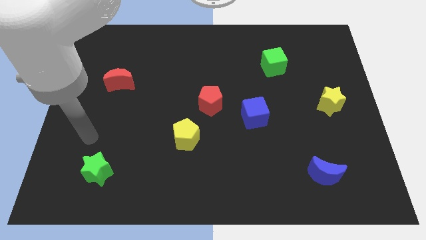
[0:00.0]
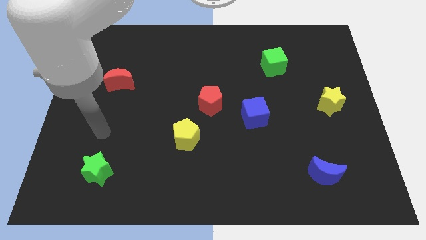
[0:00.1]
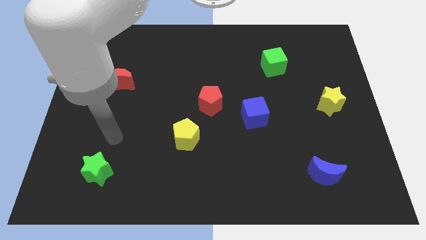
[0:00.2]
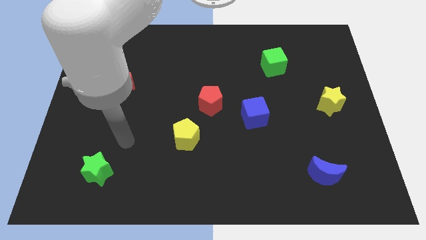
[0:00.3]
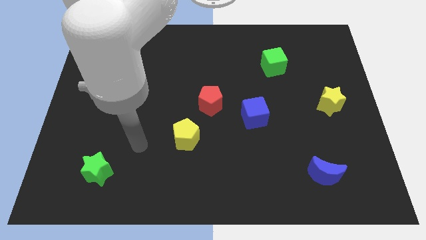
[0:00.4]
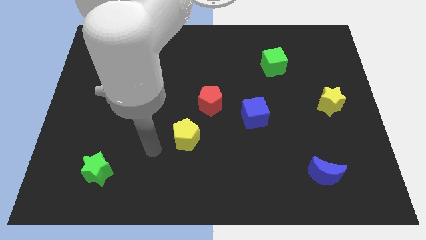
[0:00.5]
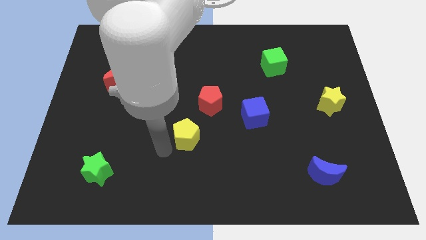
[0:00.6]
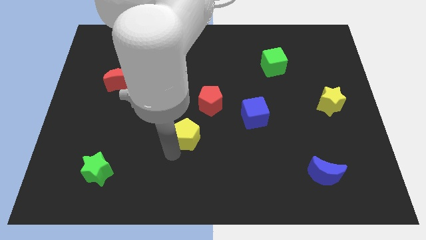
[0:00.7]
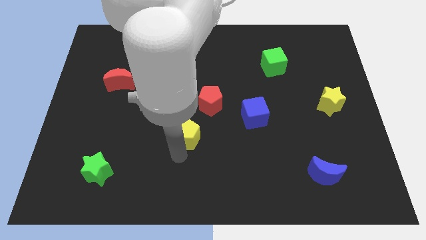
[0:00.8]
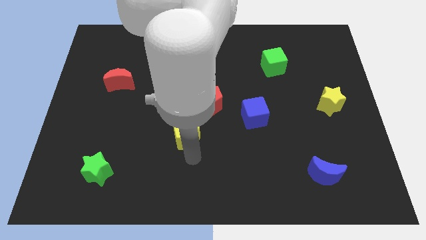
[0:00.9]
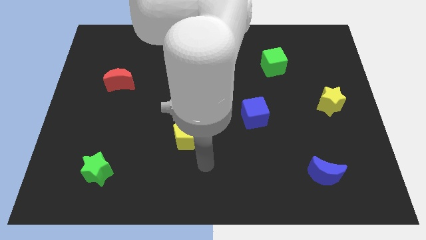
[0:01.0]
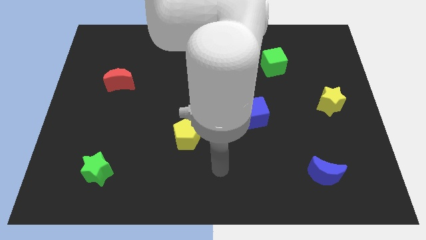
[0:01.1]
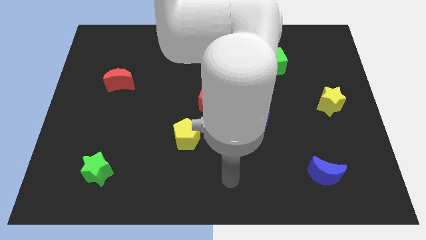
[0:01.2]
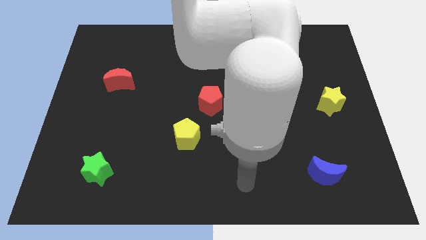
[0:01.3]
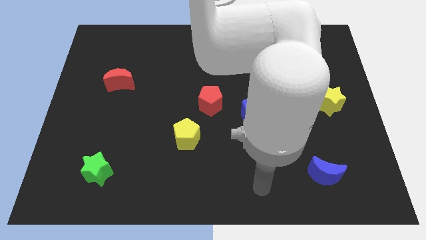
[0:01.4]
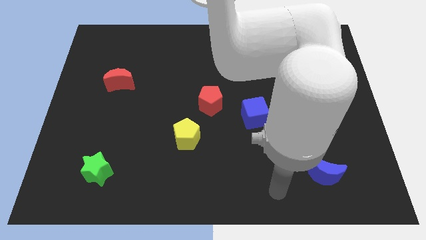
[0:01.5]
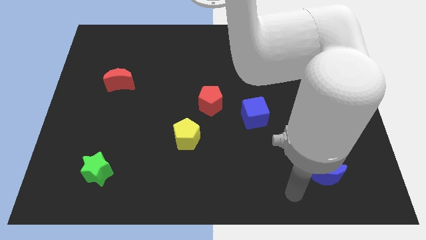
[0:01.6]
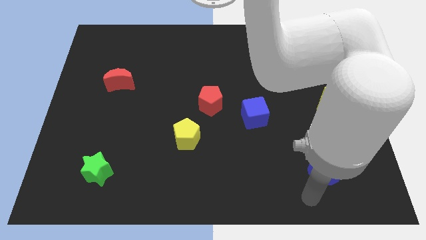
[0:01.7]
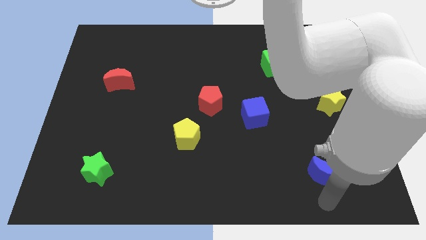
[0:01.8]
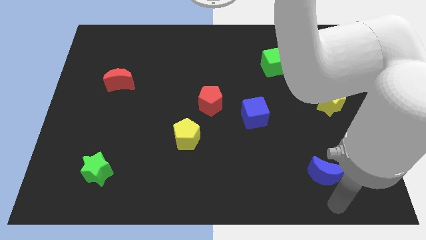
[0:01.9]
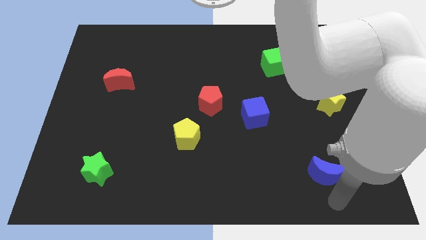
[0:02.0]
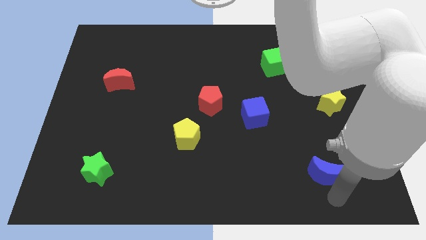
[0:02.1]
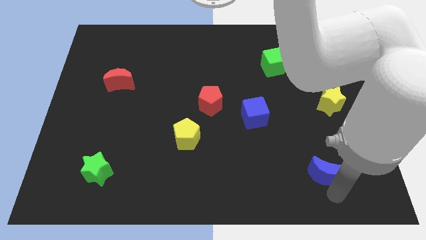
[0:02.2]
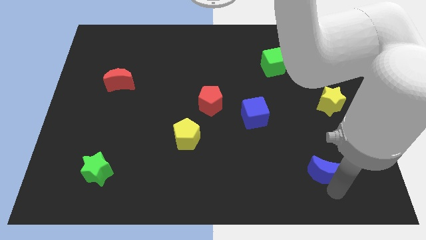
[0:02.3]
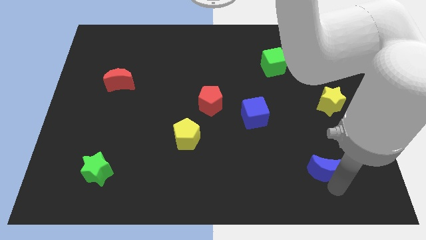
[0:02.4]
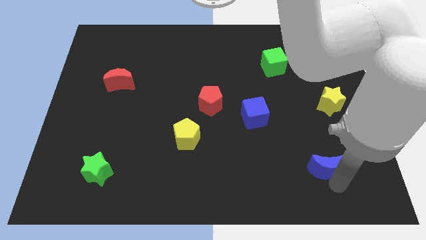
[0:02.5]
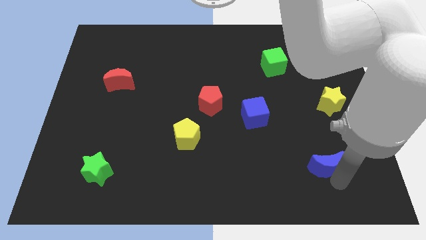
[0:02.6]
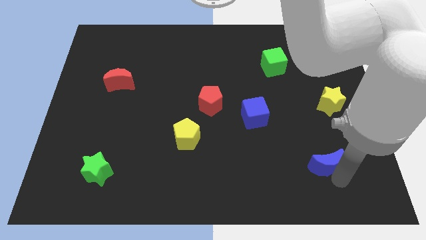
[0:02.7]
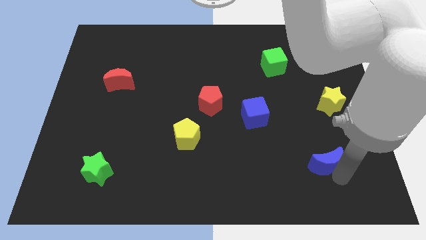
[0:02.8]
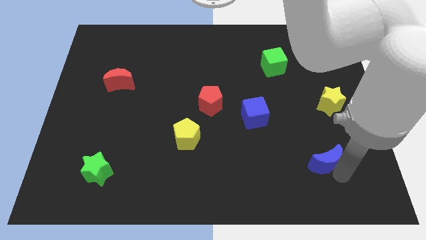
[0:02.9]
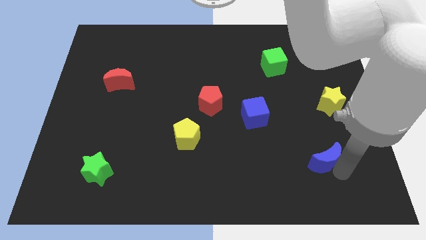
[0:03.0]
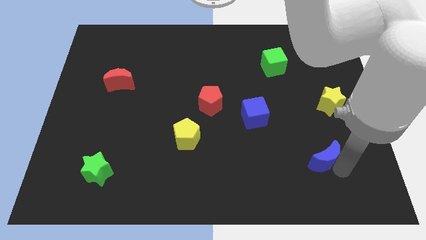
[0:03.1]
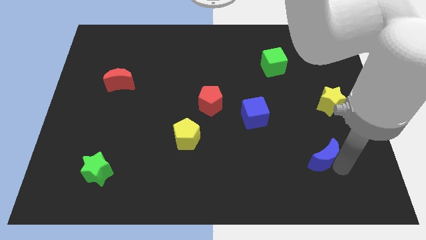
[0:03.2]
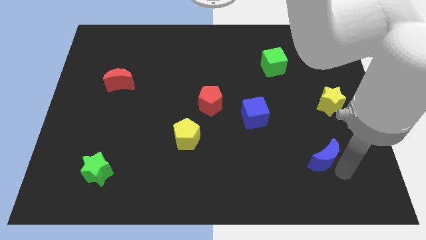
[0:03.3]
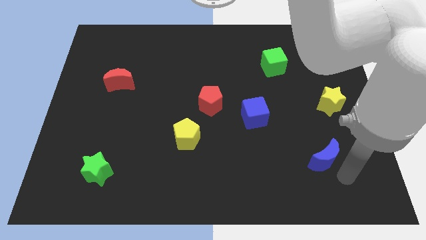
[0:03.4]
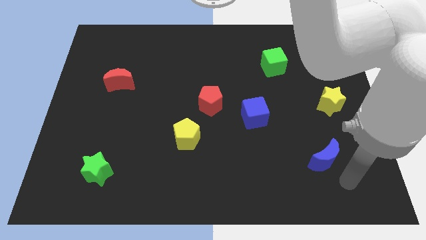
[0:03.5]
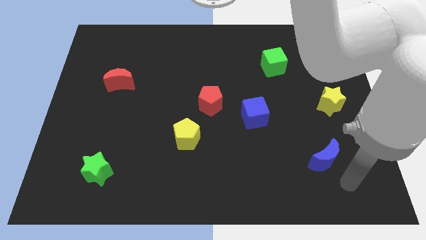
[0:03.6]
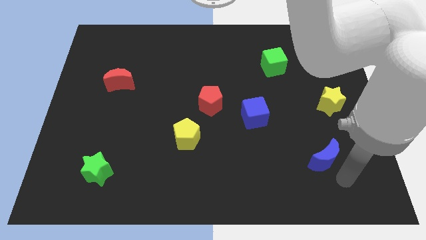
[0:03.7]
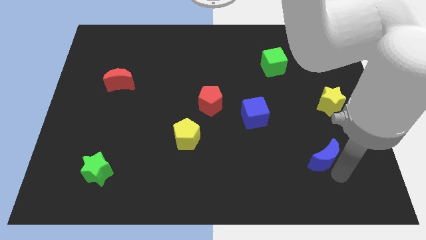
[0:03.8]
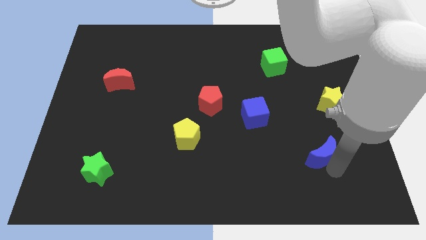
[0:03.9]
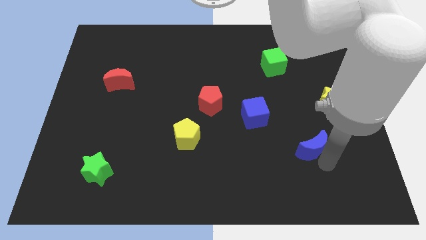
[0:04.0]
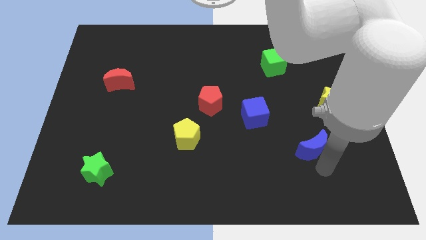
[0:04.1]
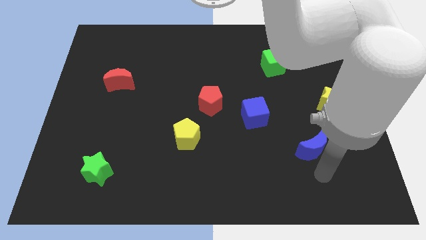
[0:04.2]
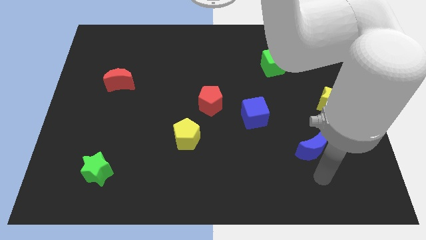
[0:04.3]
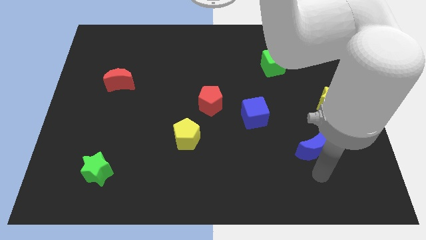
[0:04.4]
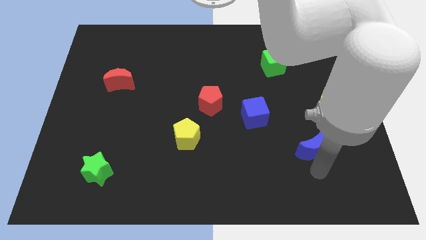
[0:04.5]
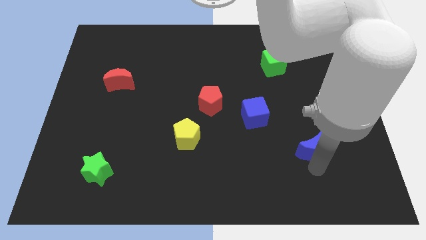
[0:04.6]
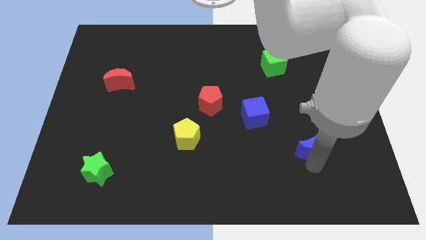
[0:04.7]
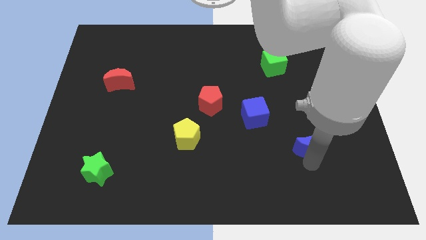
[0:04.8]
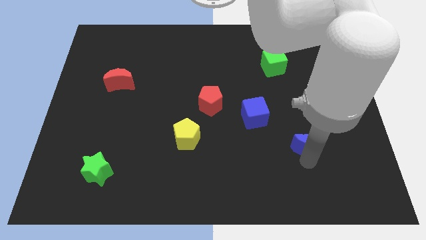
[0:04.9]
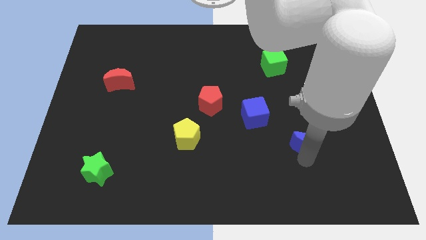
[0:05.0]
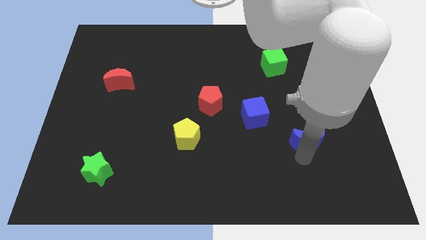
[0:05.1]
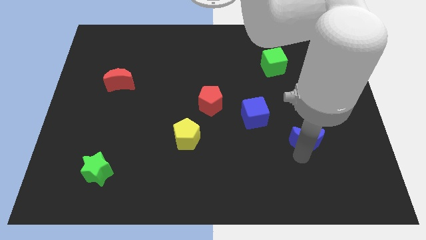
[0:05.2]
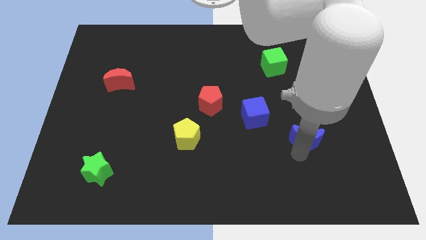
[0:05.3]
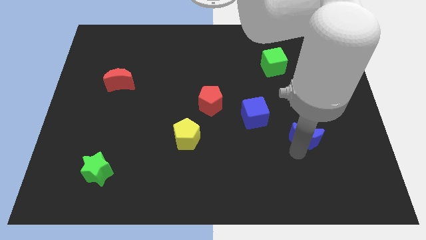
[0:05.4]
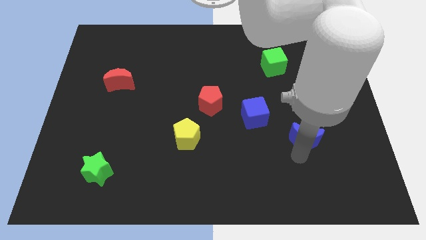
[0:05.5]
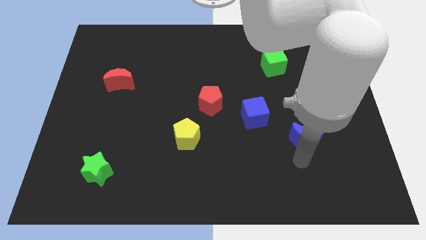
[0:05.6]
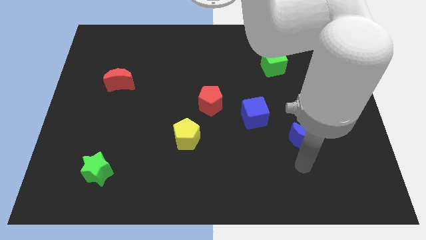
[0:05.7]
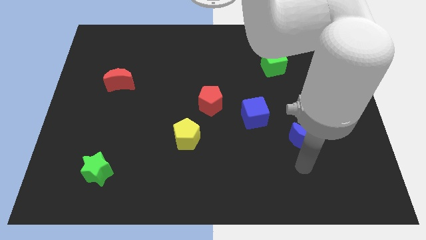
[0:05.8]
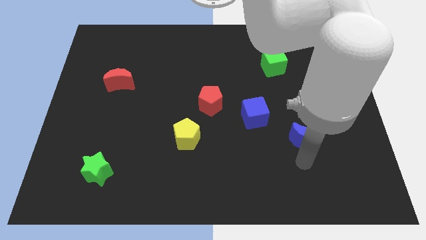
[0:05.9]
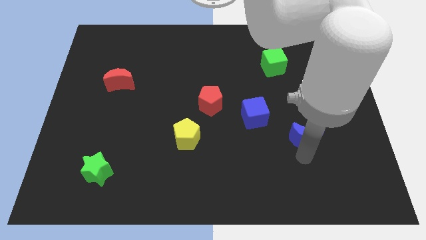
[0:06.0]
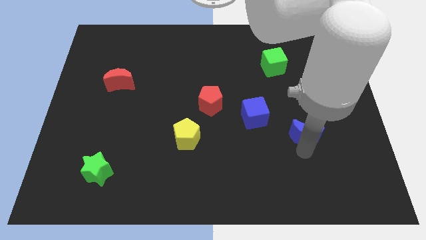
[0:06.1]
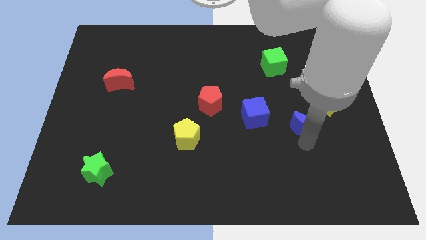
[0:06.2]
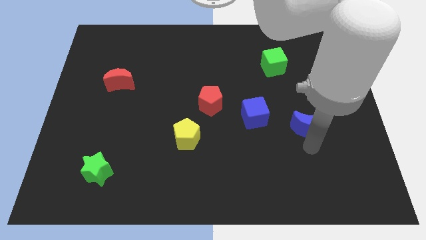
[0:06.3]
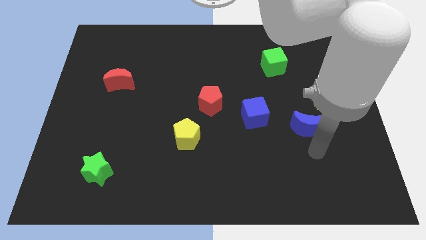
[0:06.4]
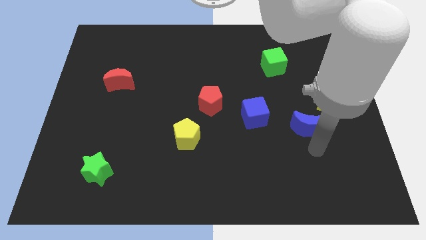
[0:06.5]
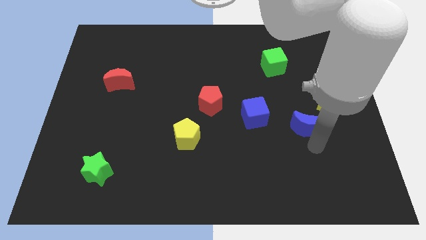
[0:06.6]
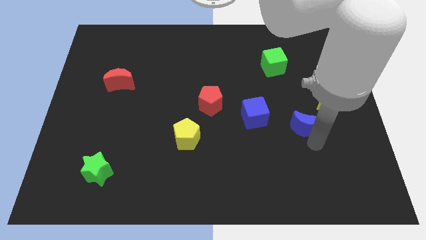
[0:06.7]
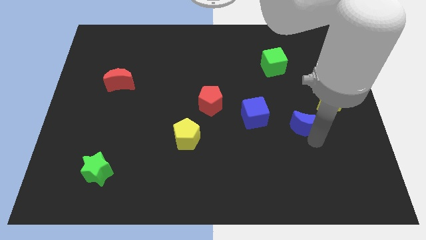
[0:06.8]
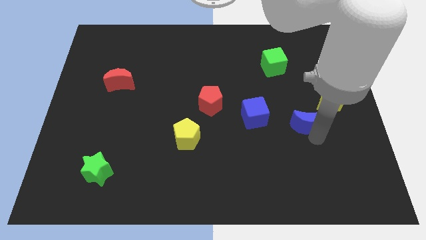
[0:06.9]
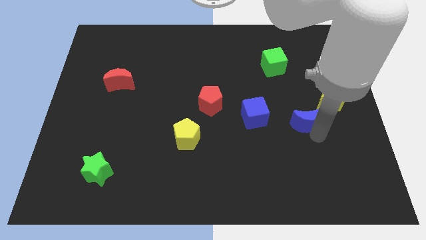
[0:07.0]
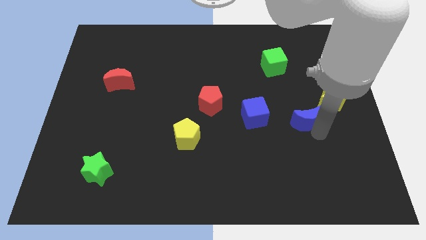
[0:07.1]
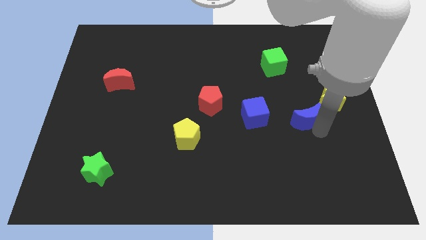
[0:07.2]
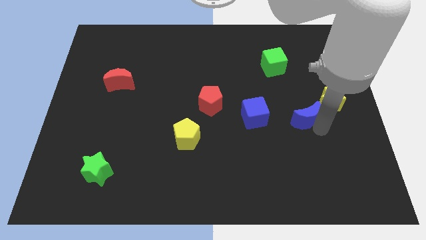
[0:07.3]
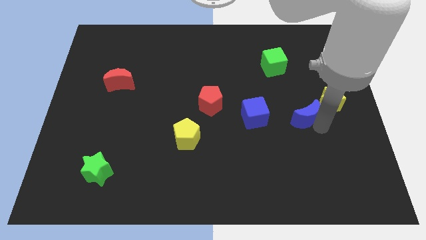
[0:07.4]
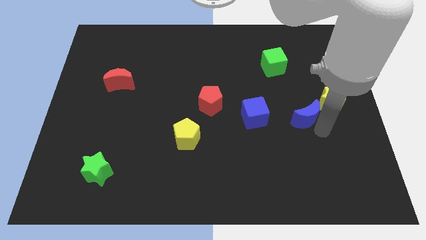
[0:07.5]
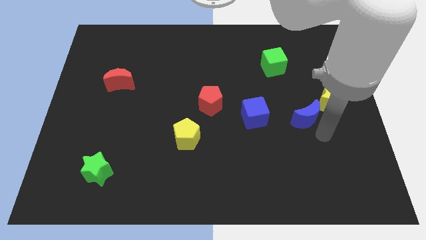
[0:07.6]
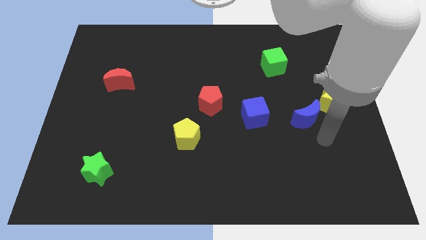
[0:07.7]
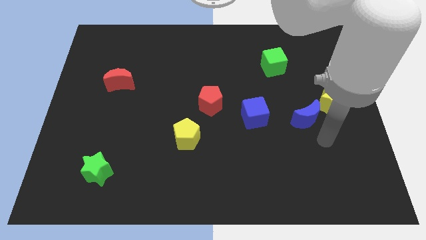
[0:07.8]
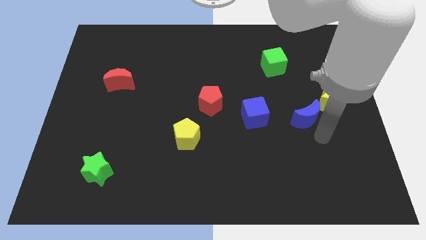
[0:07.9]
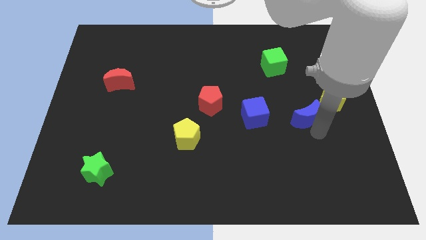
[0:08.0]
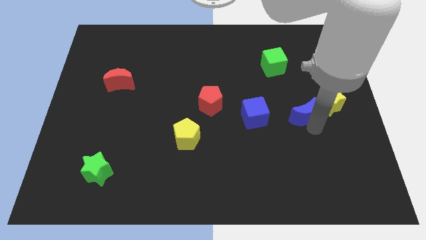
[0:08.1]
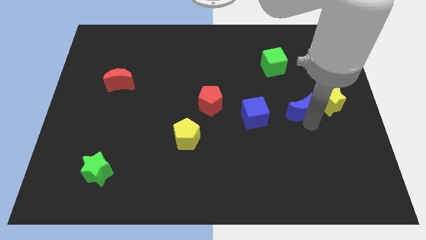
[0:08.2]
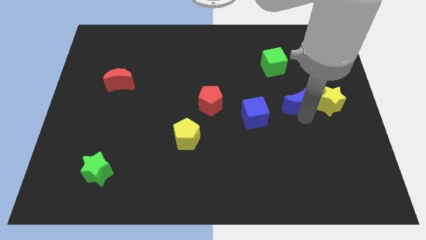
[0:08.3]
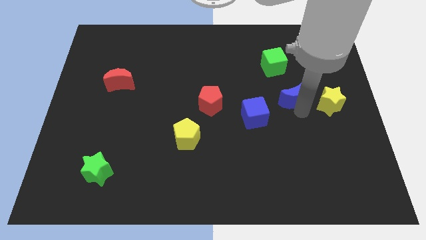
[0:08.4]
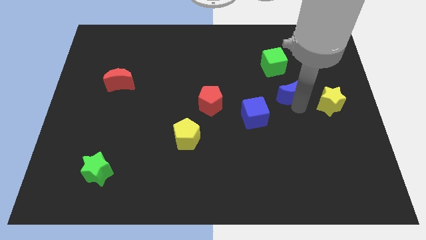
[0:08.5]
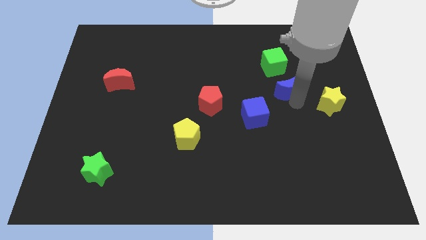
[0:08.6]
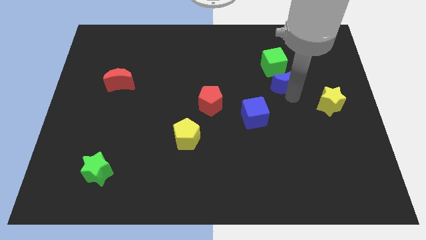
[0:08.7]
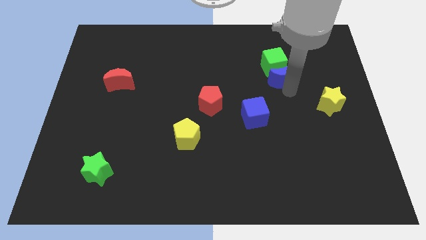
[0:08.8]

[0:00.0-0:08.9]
push the blue moon next to the green cube
